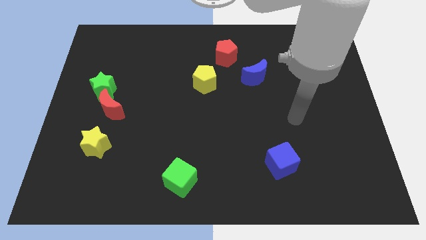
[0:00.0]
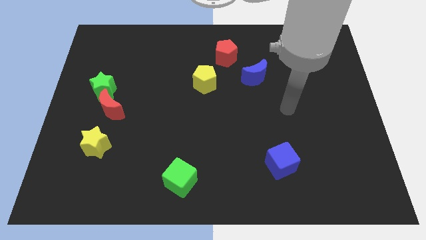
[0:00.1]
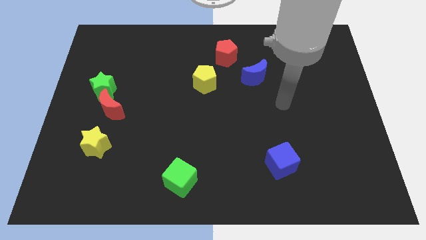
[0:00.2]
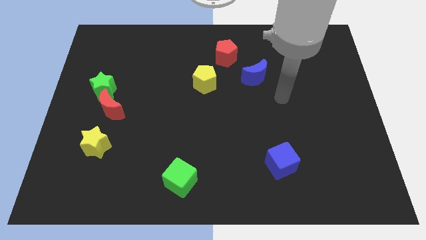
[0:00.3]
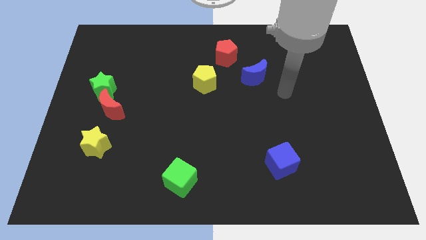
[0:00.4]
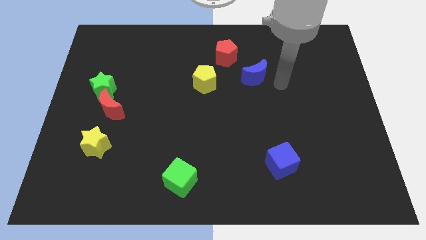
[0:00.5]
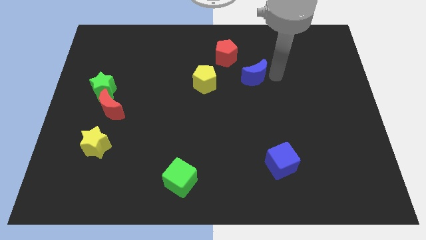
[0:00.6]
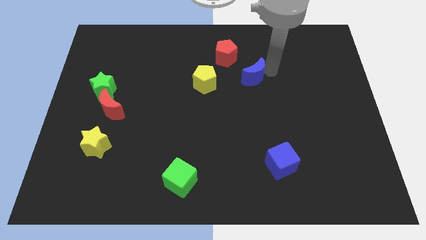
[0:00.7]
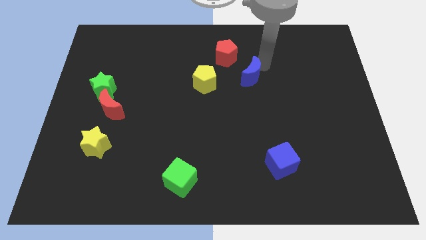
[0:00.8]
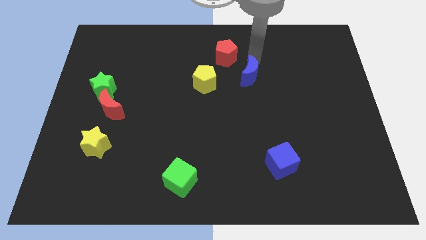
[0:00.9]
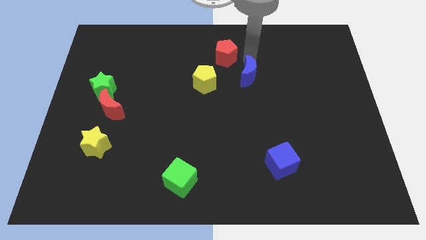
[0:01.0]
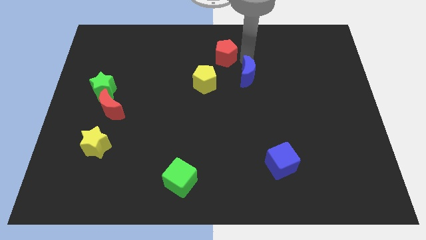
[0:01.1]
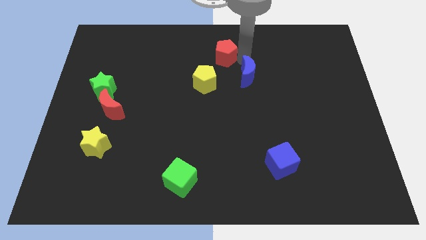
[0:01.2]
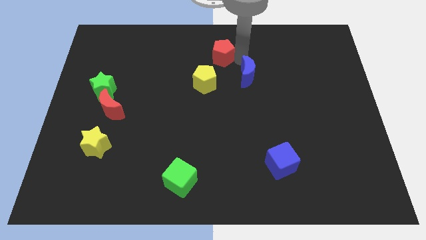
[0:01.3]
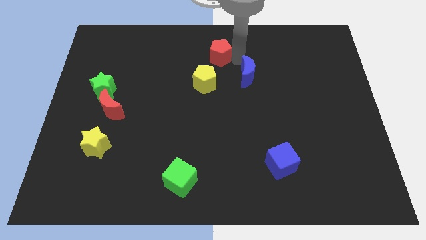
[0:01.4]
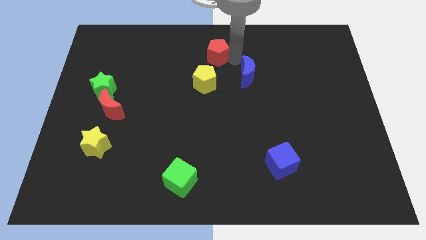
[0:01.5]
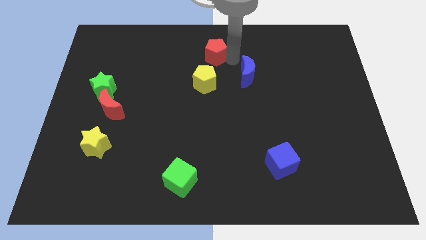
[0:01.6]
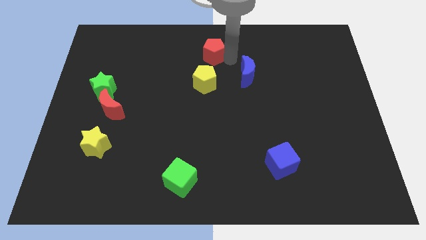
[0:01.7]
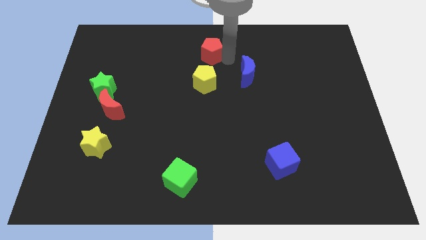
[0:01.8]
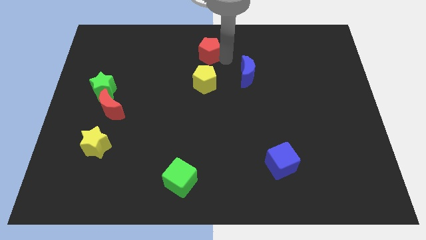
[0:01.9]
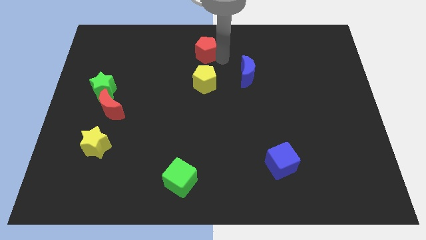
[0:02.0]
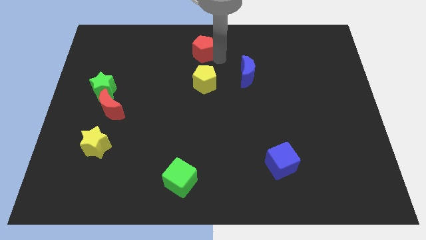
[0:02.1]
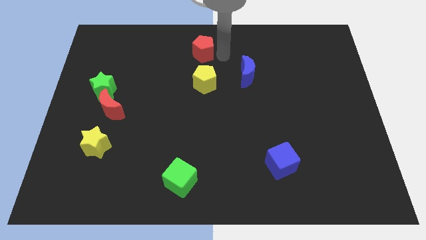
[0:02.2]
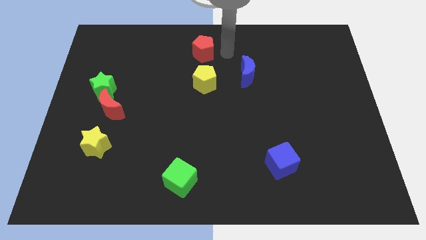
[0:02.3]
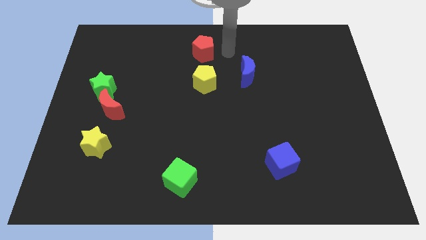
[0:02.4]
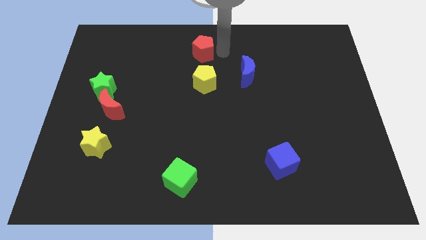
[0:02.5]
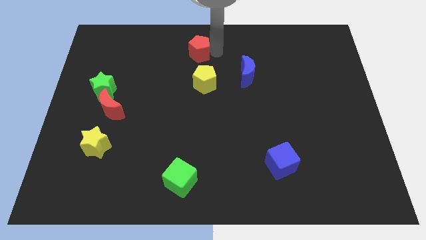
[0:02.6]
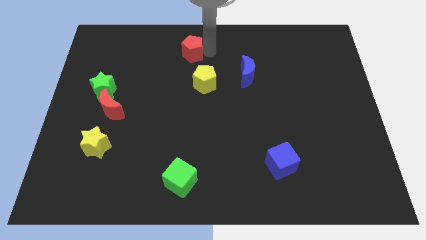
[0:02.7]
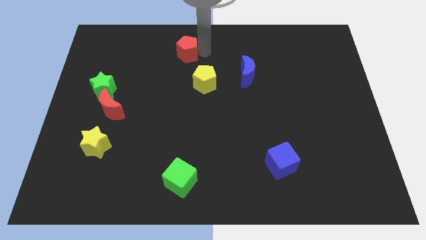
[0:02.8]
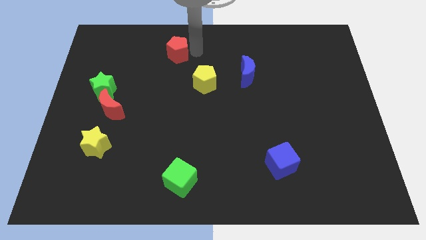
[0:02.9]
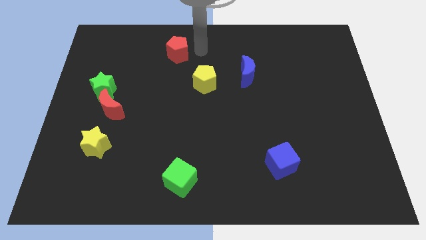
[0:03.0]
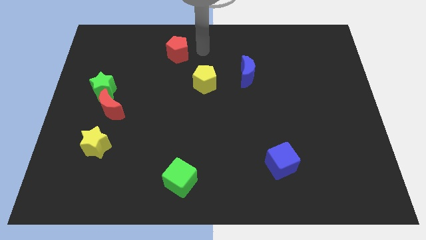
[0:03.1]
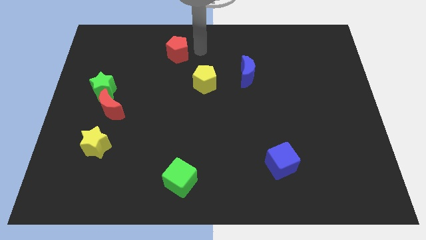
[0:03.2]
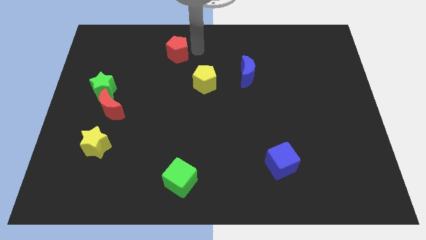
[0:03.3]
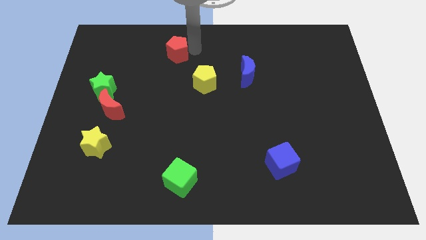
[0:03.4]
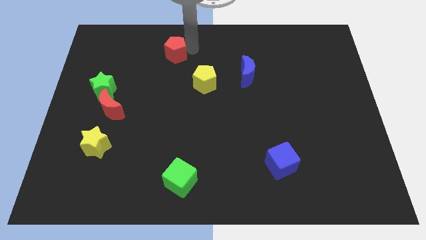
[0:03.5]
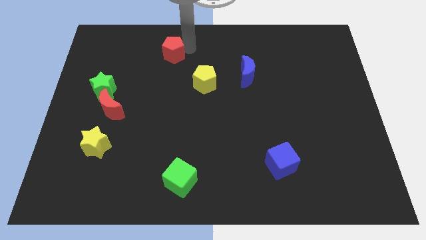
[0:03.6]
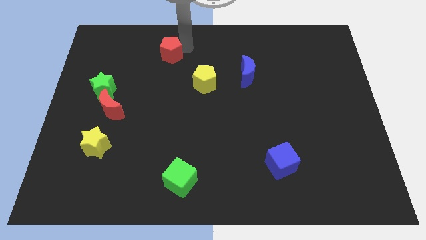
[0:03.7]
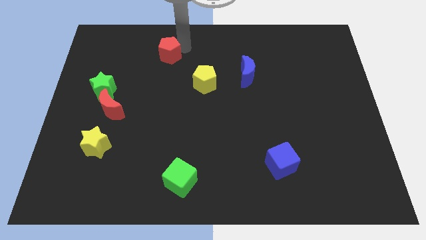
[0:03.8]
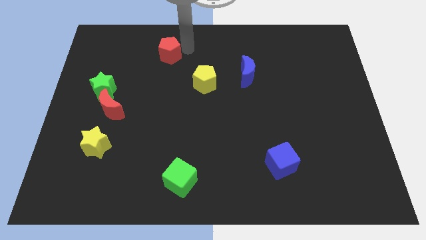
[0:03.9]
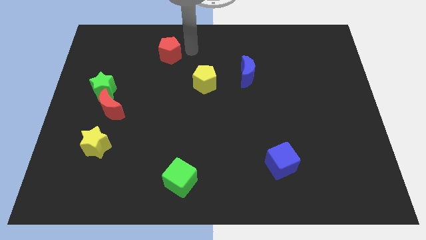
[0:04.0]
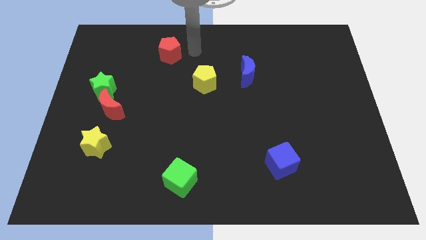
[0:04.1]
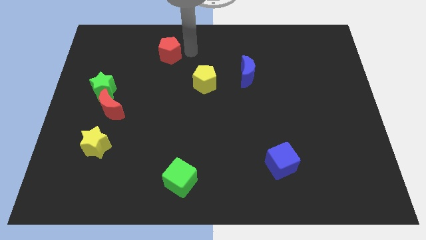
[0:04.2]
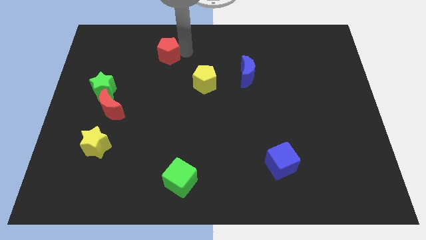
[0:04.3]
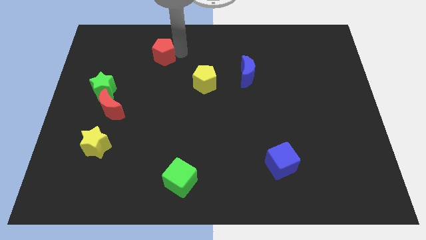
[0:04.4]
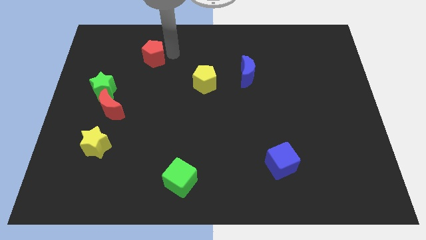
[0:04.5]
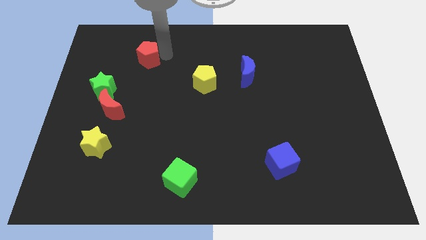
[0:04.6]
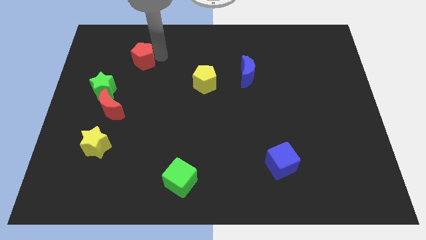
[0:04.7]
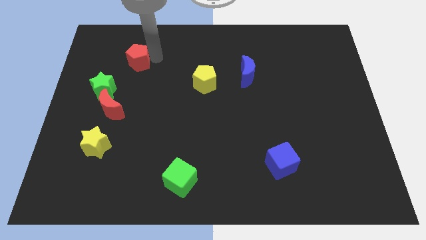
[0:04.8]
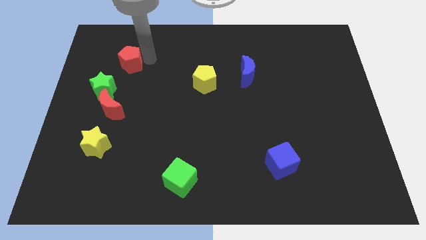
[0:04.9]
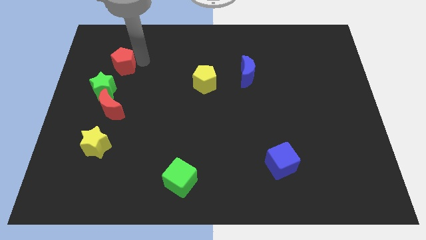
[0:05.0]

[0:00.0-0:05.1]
push the red pentagon to the top side of the green star

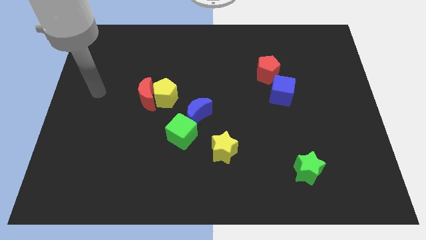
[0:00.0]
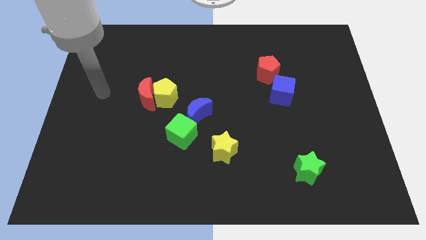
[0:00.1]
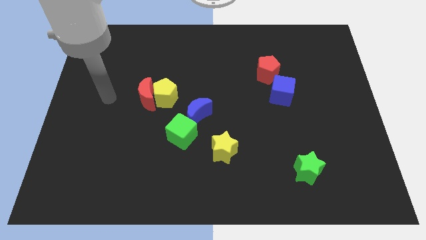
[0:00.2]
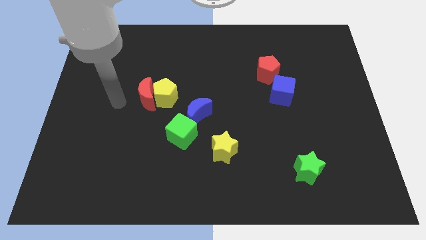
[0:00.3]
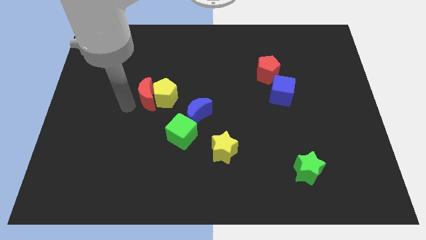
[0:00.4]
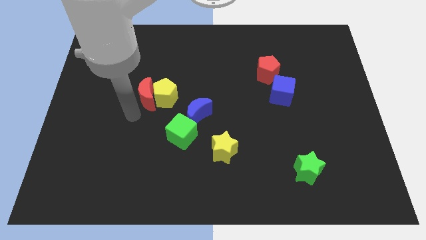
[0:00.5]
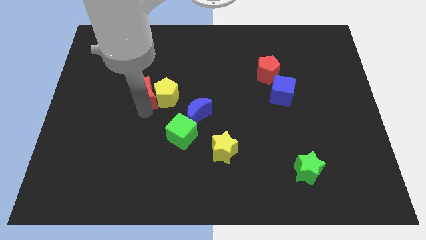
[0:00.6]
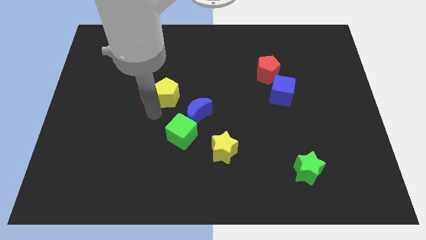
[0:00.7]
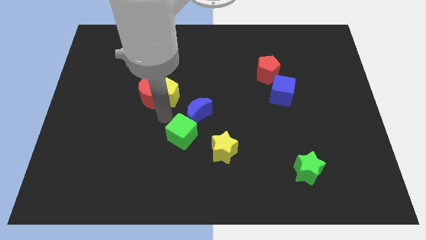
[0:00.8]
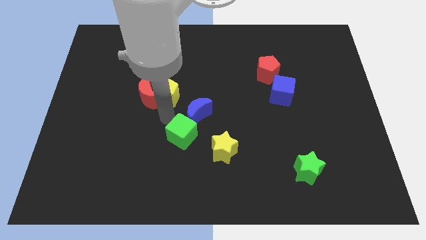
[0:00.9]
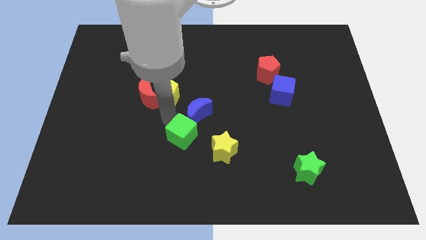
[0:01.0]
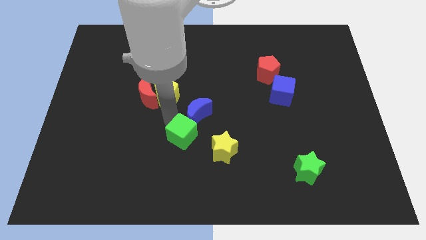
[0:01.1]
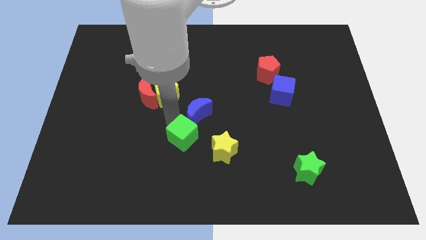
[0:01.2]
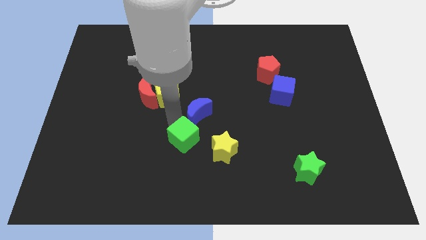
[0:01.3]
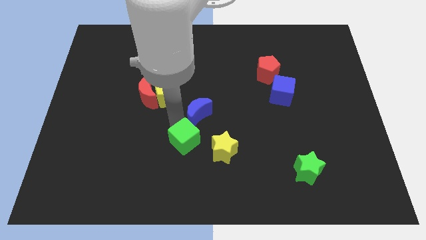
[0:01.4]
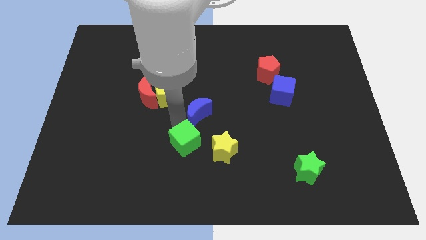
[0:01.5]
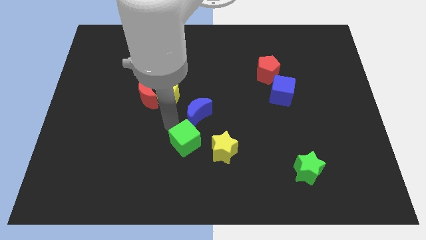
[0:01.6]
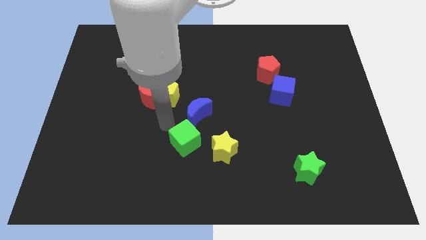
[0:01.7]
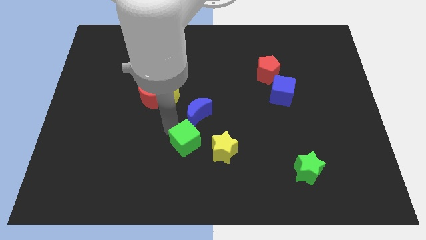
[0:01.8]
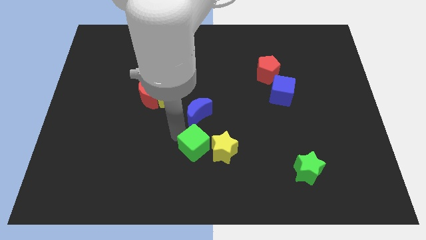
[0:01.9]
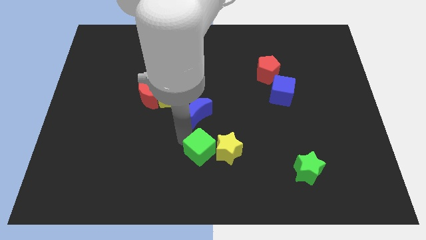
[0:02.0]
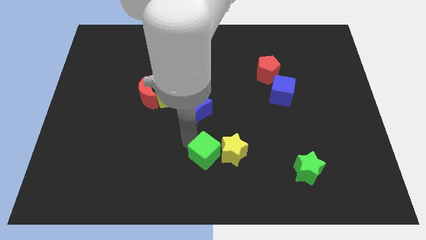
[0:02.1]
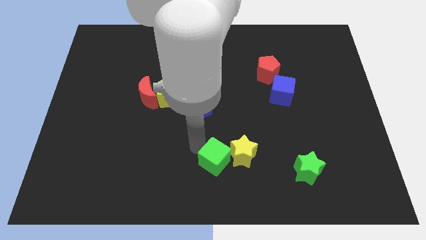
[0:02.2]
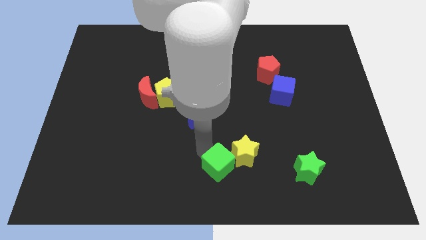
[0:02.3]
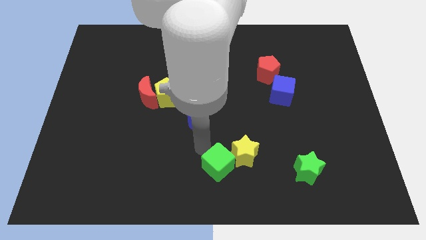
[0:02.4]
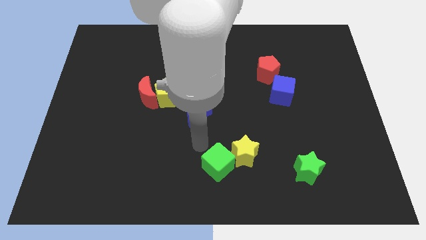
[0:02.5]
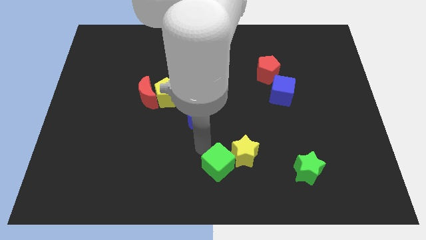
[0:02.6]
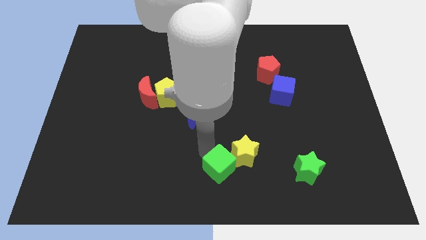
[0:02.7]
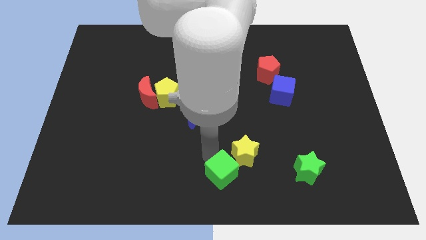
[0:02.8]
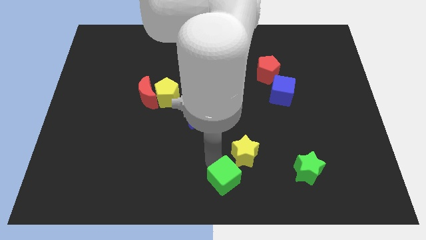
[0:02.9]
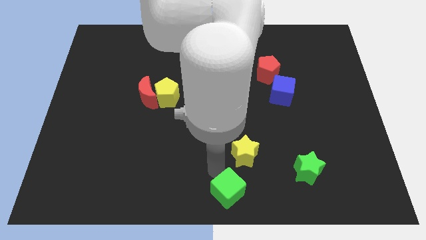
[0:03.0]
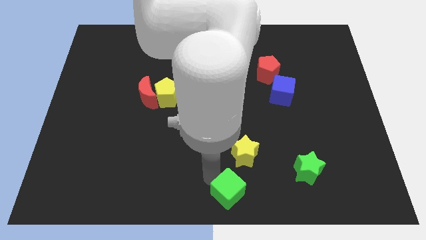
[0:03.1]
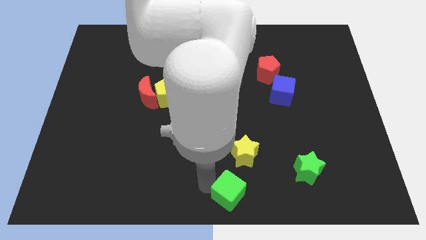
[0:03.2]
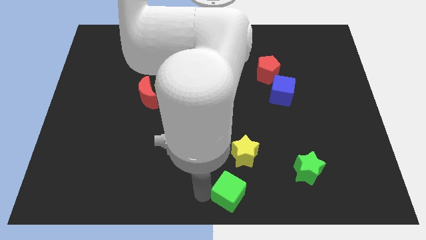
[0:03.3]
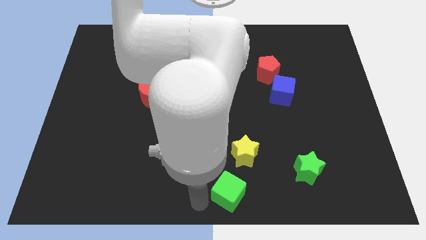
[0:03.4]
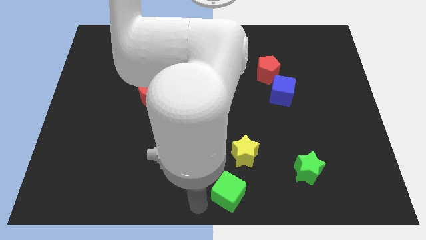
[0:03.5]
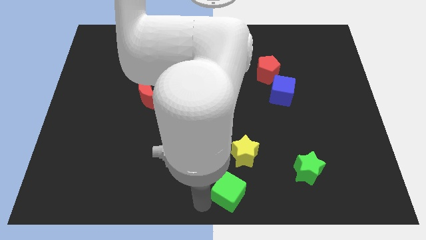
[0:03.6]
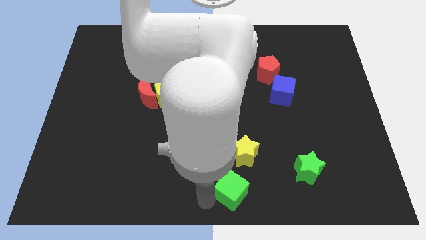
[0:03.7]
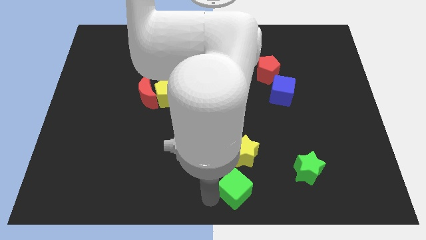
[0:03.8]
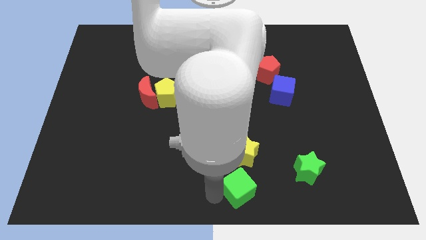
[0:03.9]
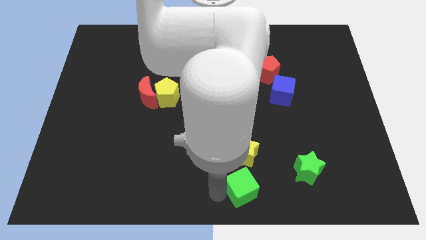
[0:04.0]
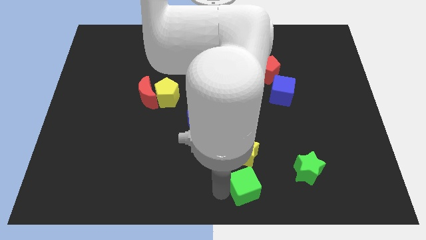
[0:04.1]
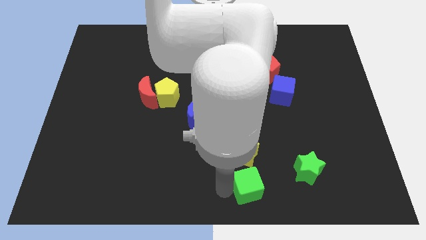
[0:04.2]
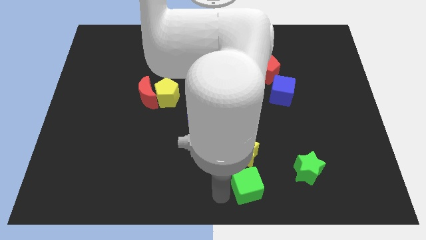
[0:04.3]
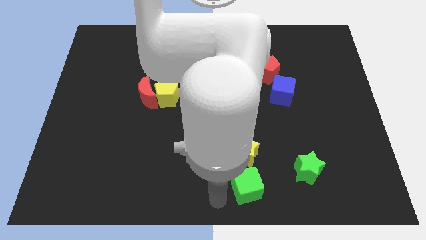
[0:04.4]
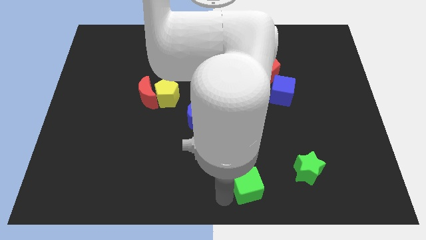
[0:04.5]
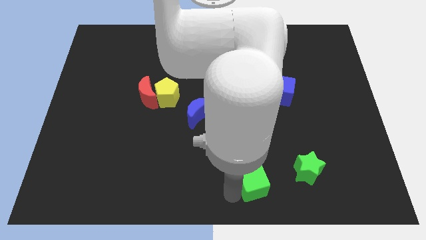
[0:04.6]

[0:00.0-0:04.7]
move the green cube diagonally down and to the right of the yellow star
